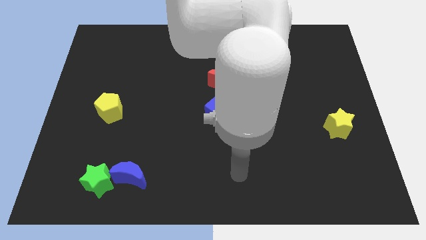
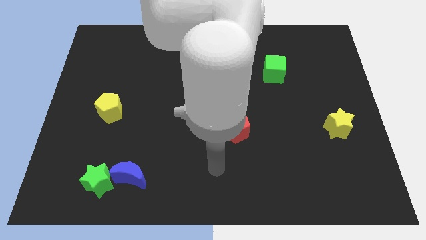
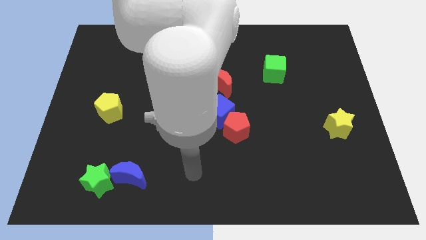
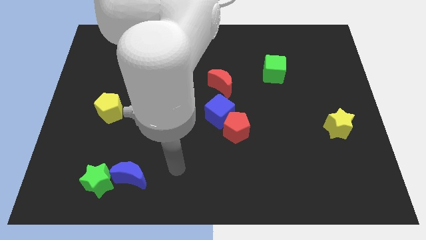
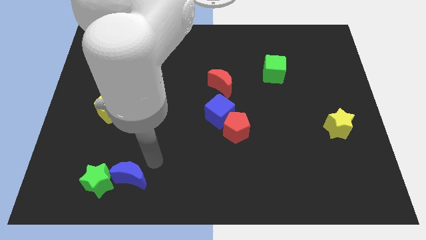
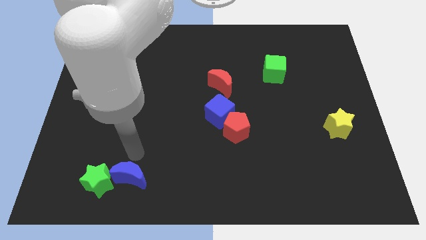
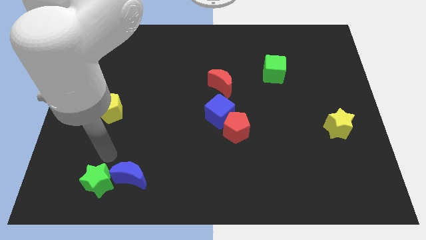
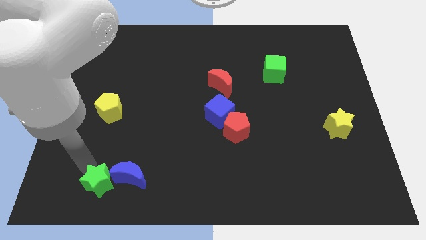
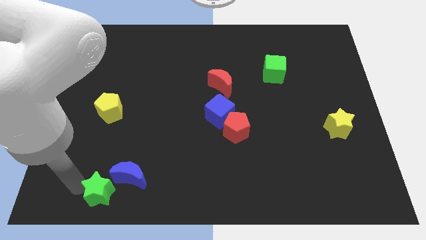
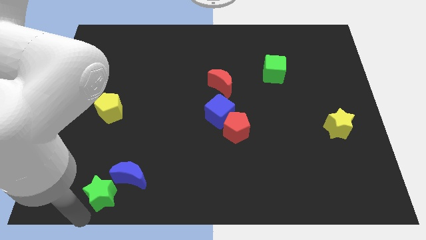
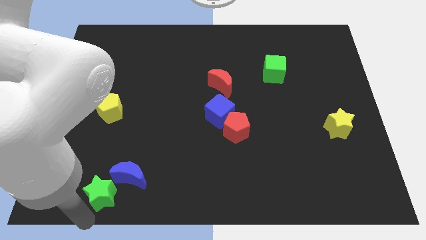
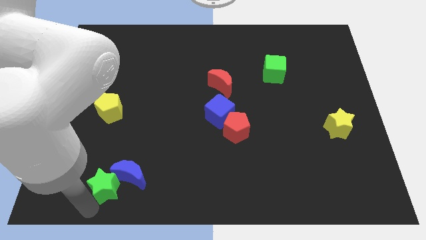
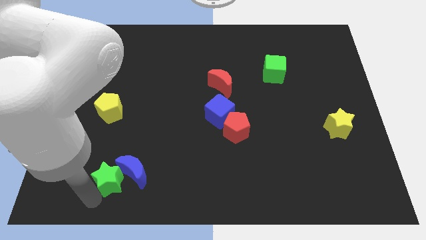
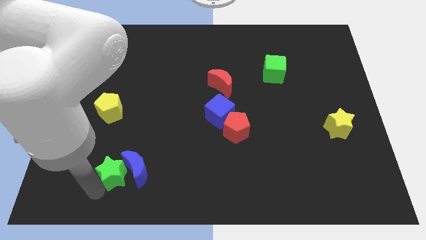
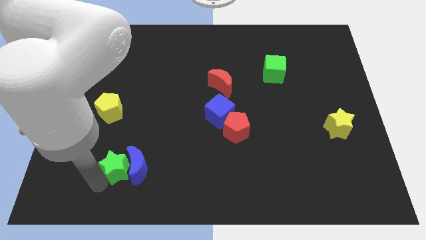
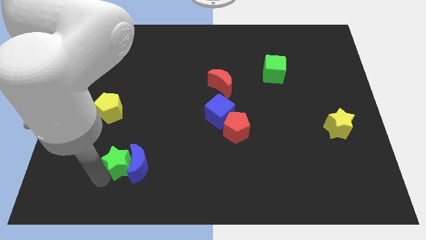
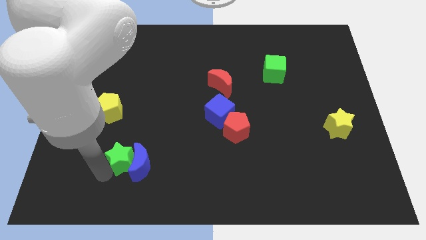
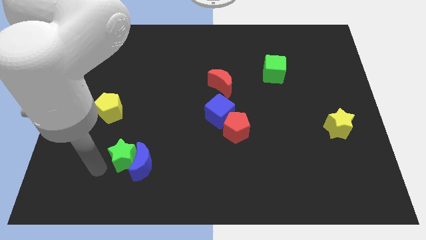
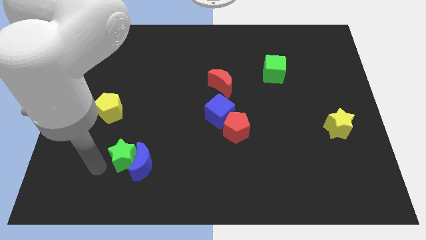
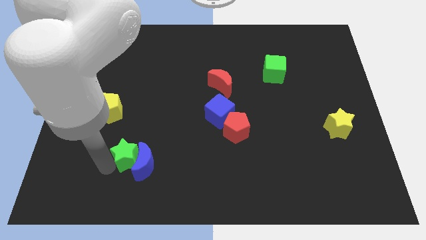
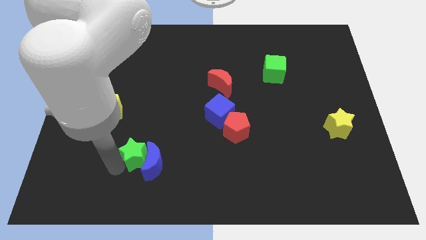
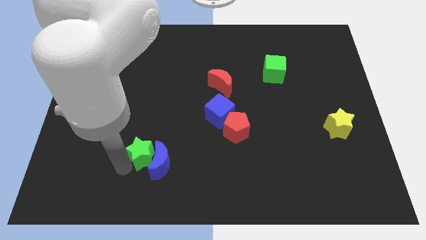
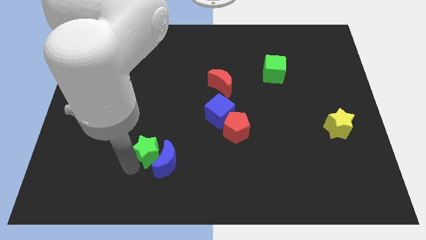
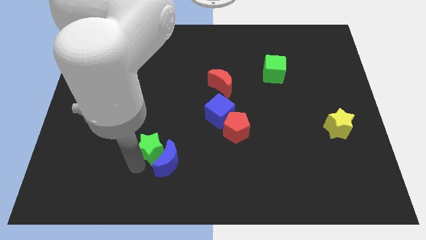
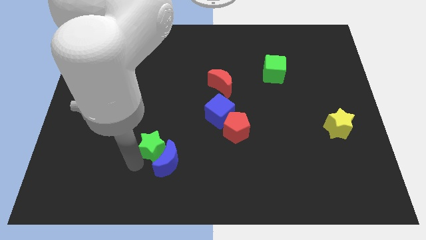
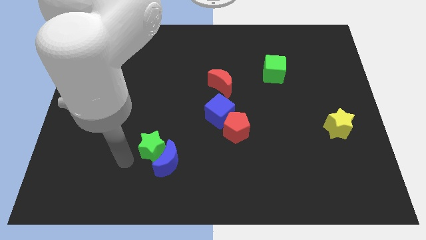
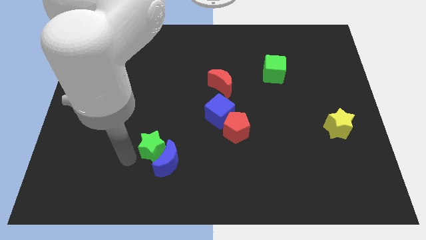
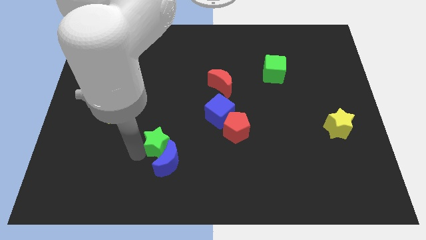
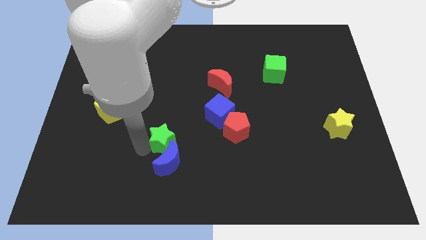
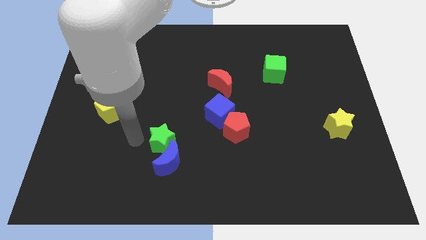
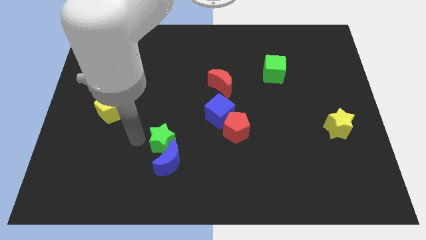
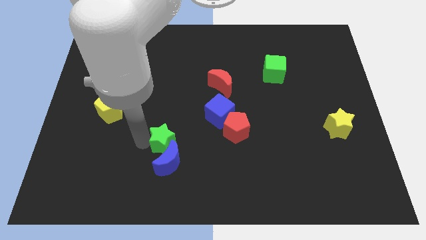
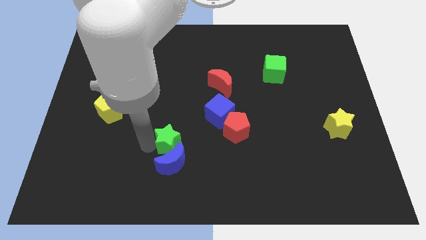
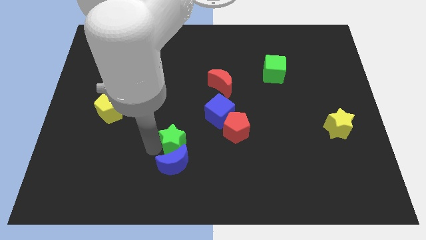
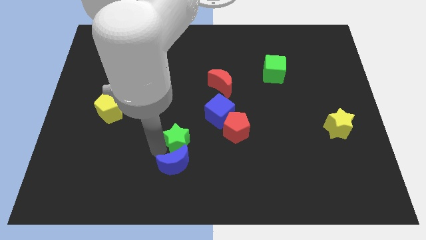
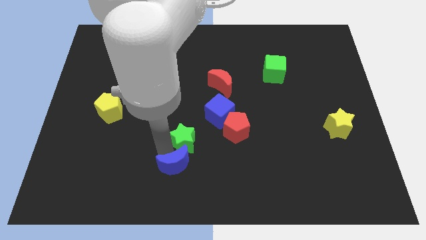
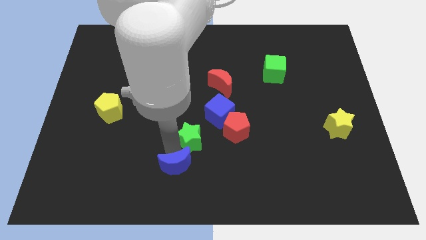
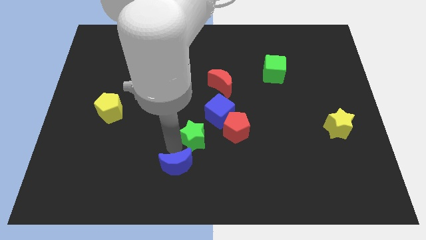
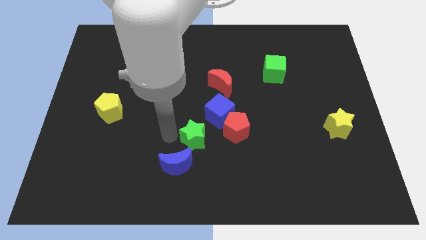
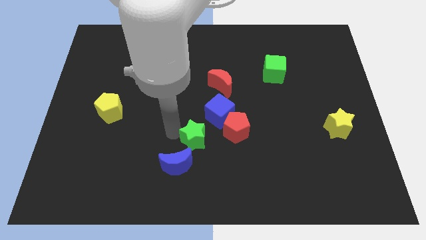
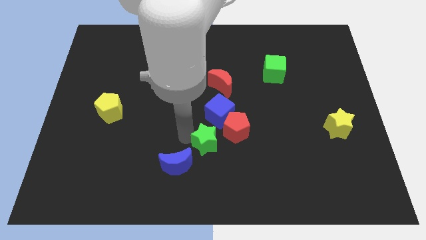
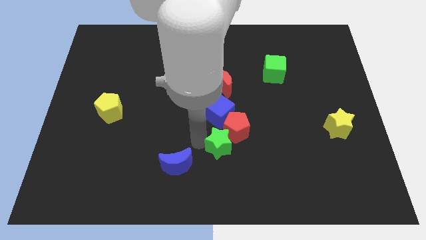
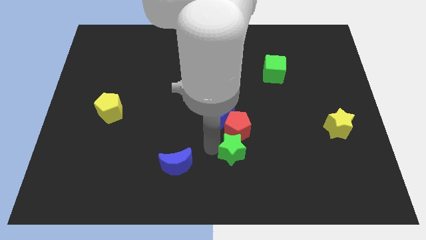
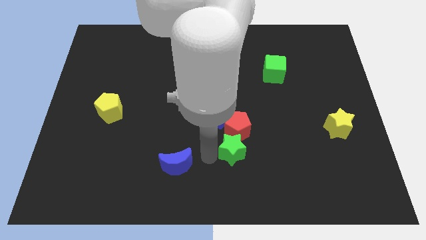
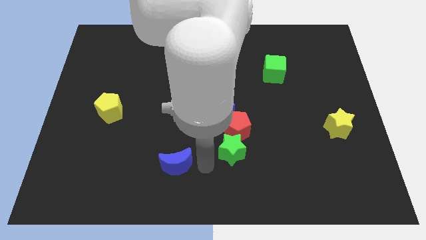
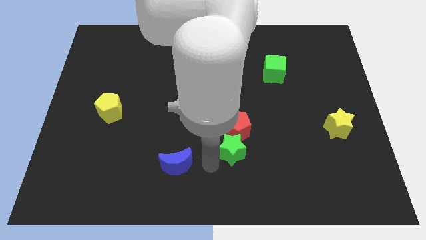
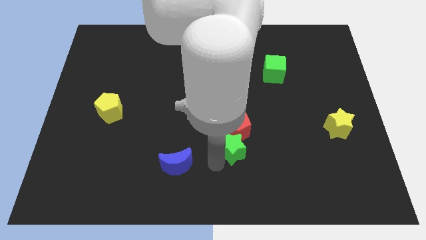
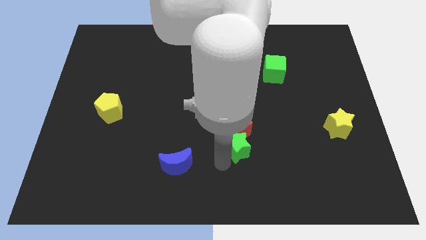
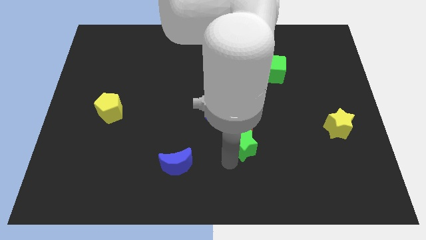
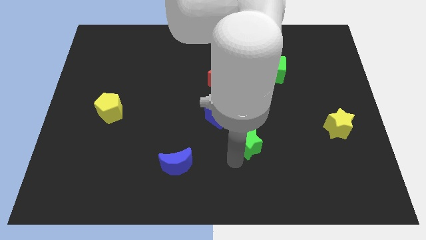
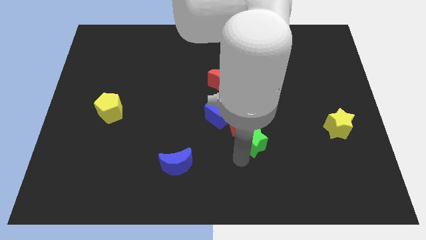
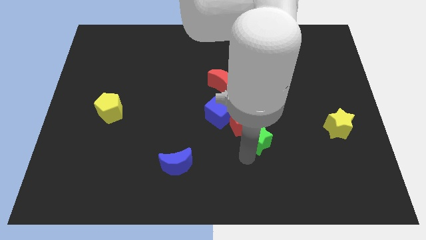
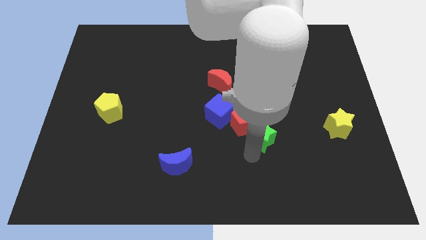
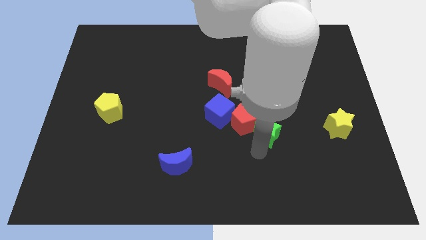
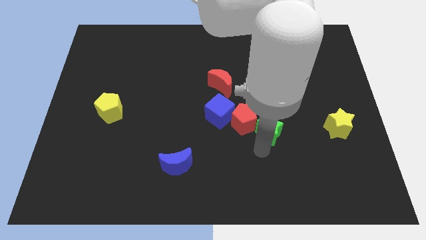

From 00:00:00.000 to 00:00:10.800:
put the green star just left of the yellow star

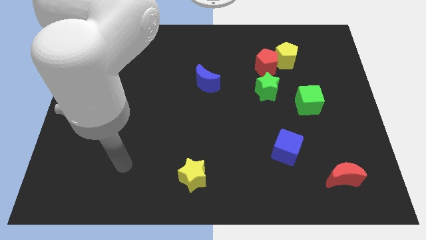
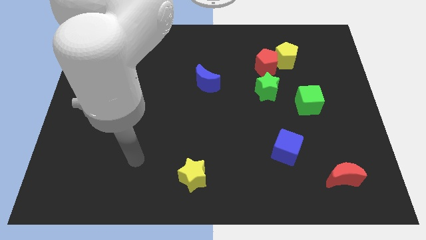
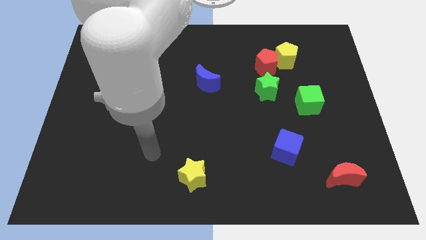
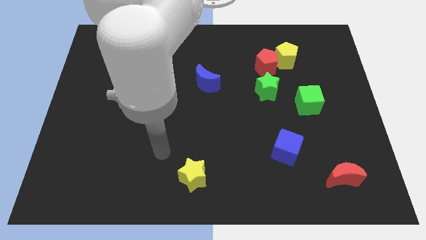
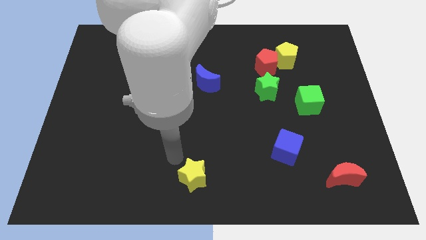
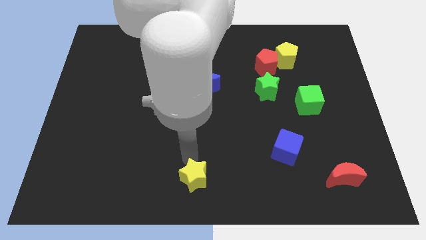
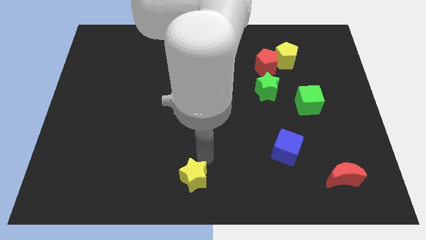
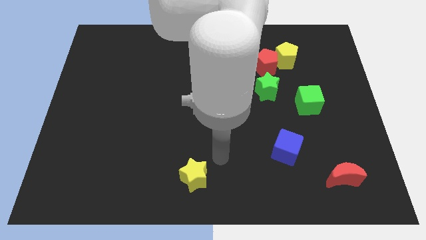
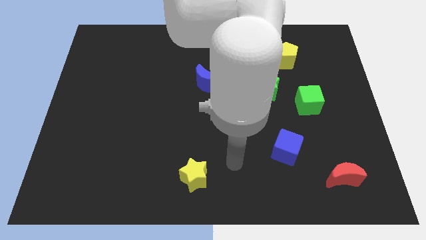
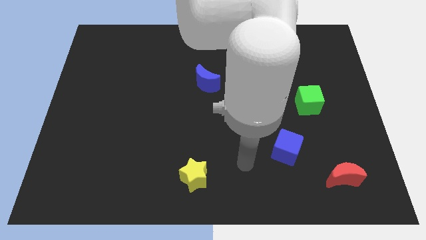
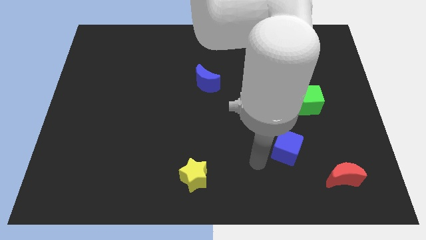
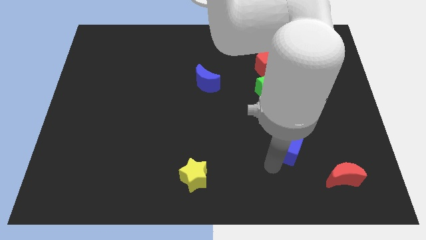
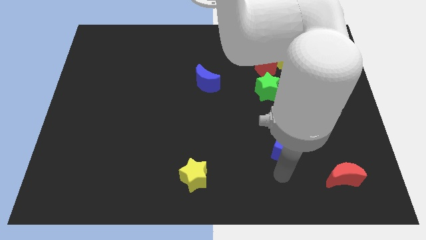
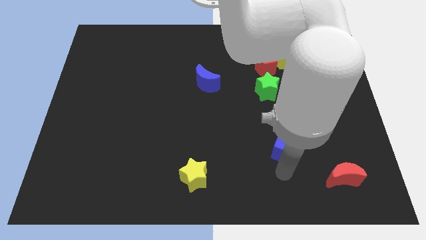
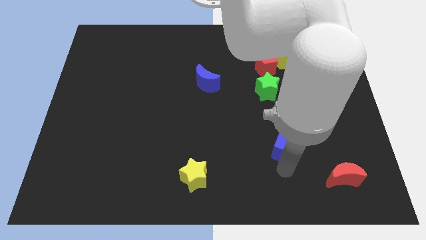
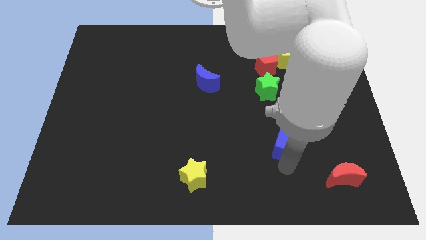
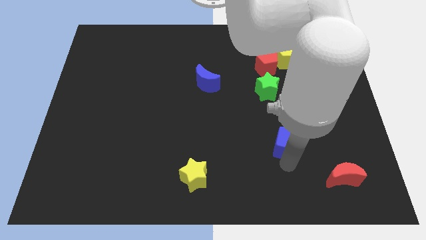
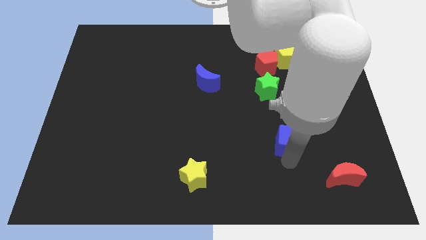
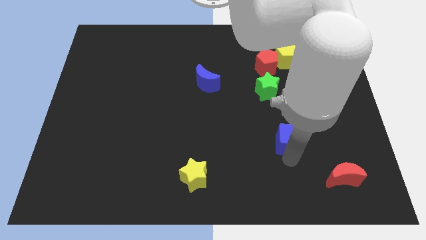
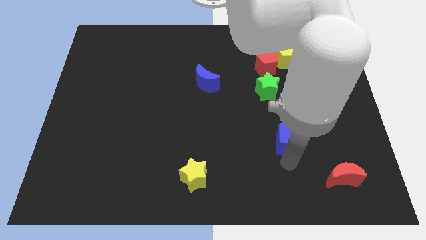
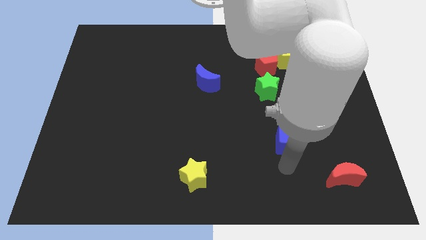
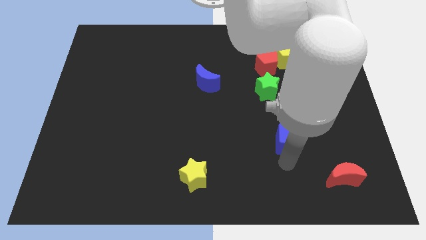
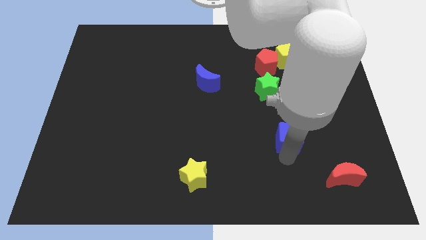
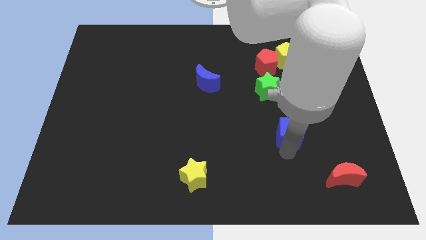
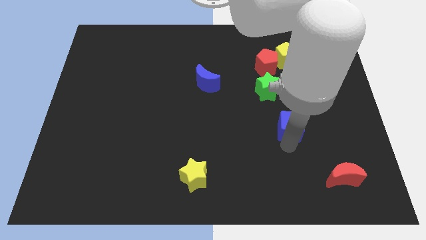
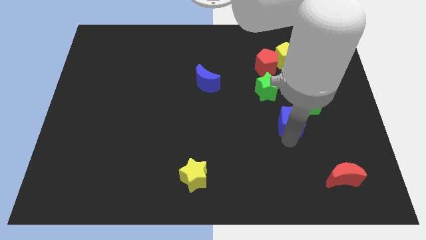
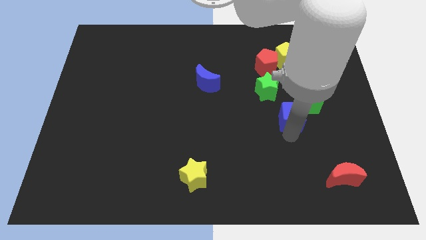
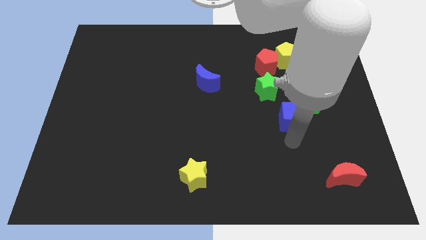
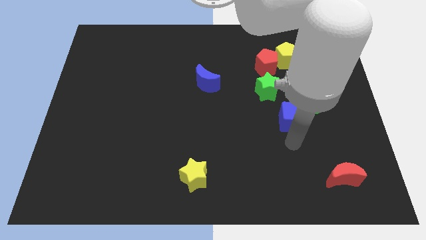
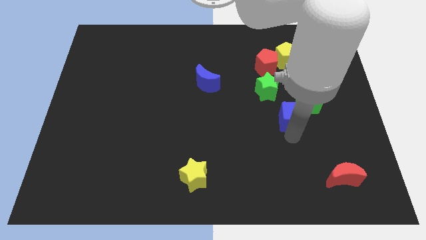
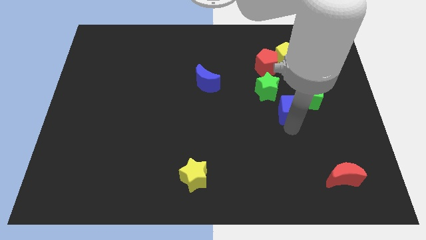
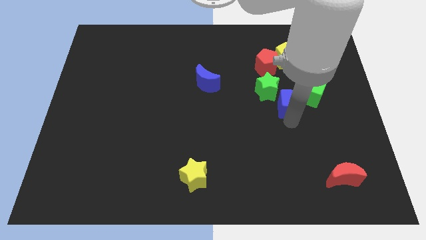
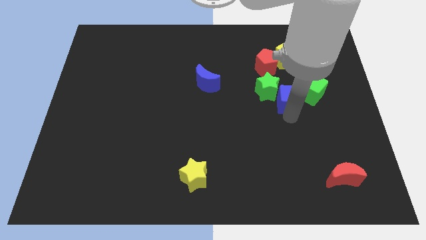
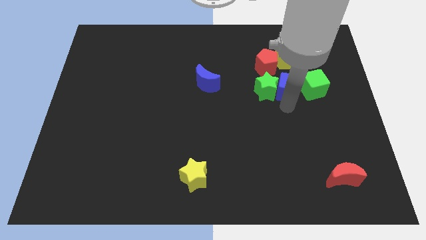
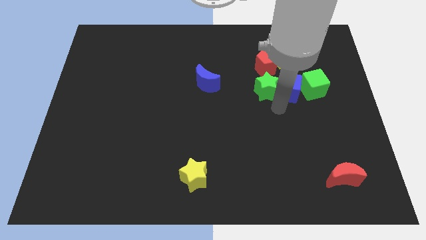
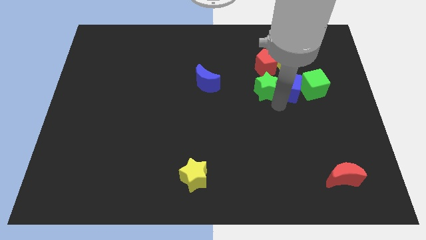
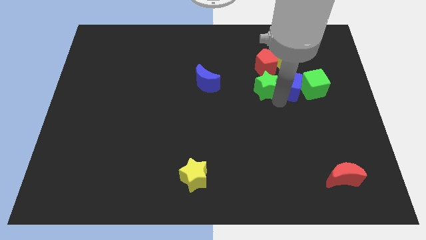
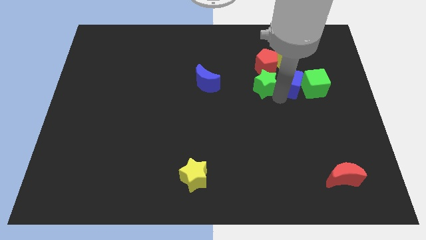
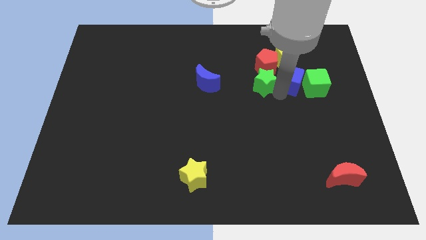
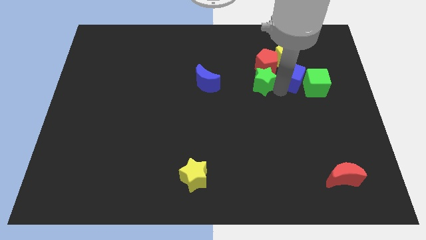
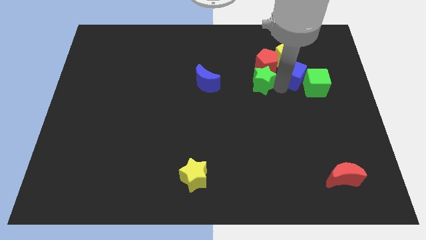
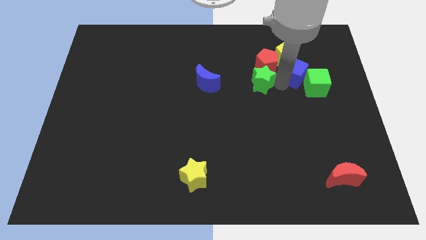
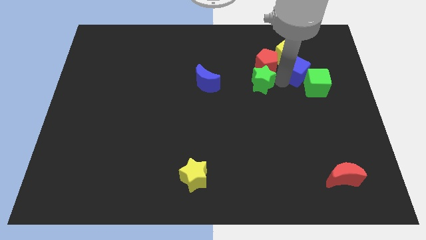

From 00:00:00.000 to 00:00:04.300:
put the blue cube to the top of the green cube
